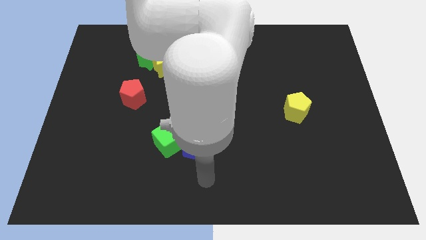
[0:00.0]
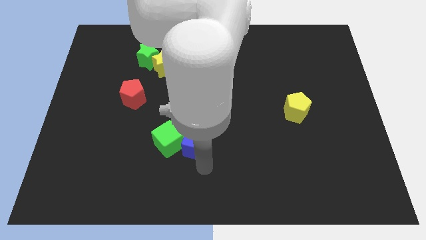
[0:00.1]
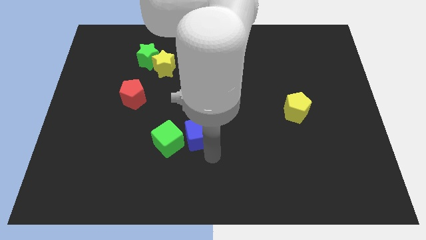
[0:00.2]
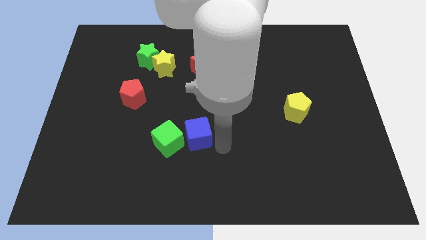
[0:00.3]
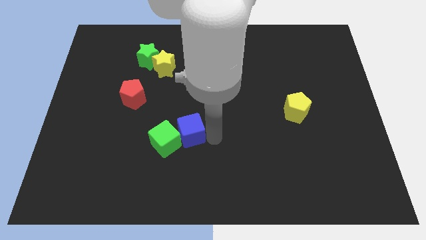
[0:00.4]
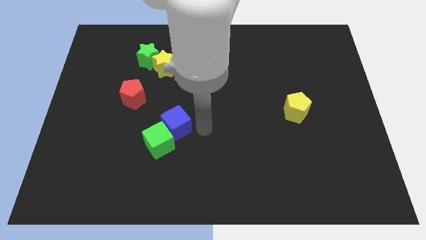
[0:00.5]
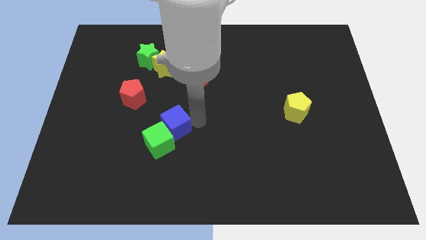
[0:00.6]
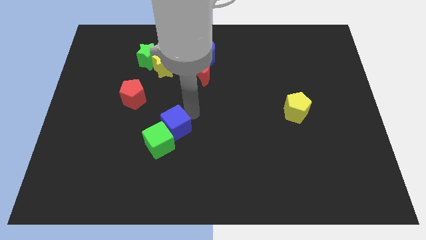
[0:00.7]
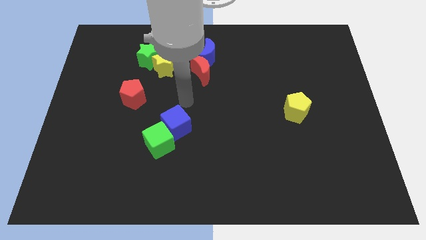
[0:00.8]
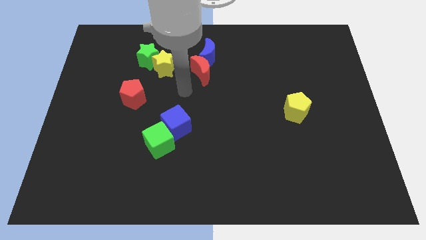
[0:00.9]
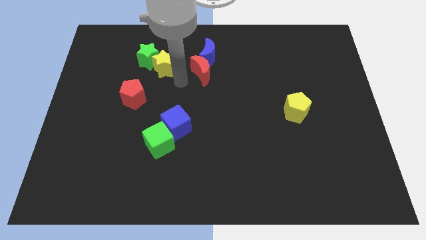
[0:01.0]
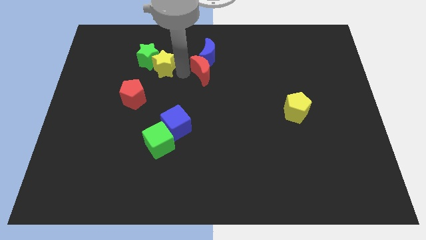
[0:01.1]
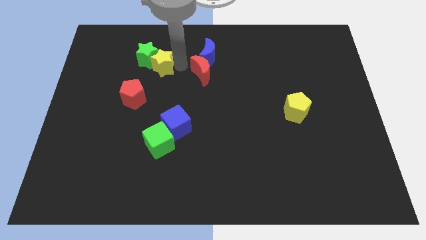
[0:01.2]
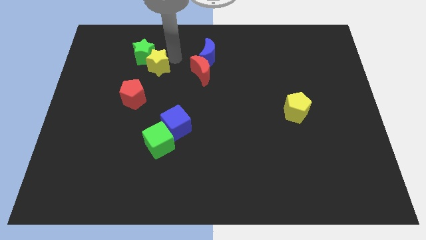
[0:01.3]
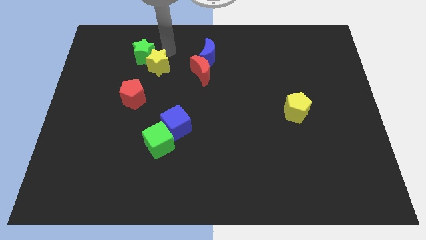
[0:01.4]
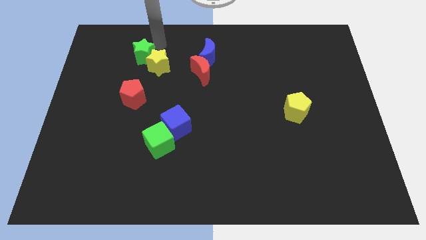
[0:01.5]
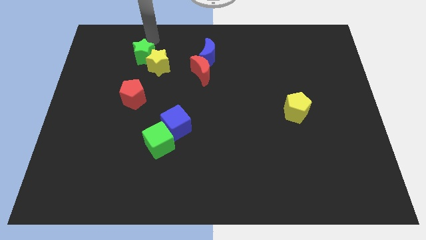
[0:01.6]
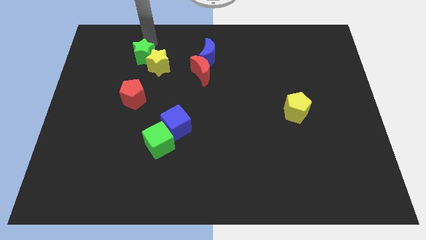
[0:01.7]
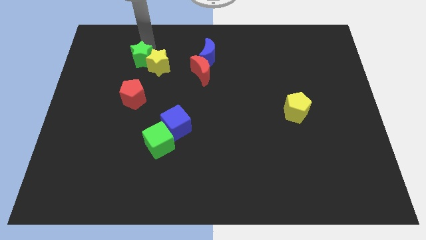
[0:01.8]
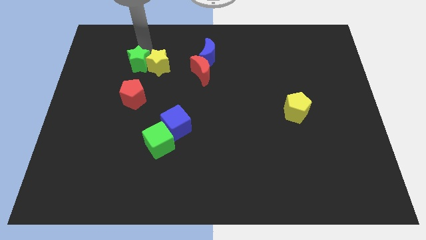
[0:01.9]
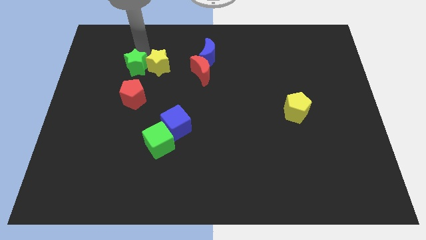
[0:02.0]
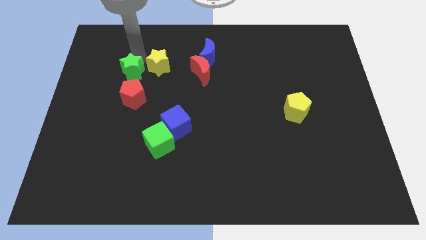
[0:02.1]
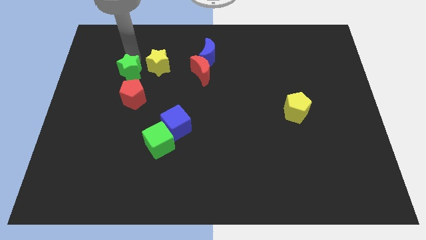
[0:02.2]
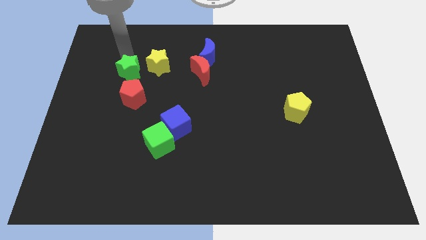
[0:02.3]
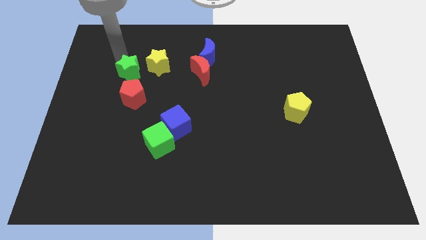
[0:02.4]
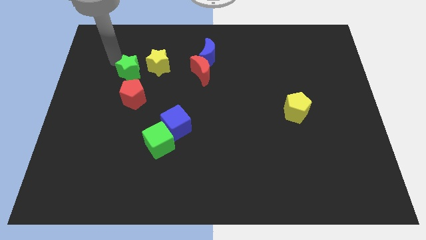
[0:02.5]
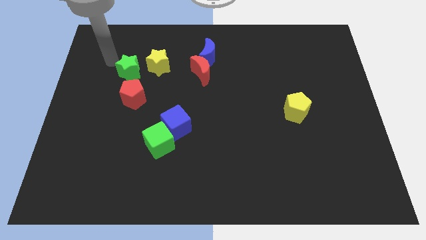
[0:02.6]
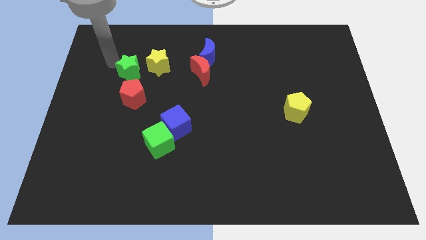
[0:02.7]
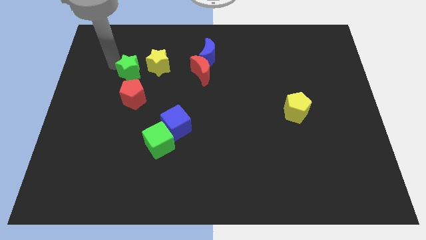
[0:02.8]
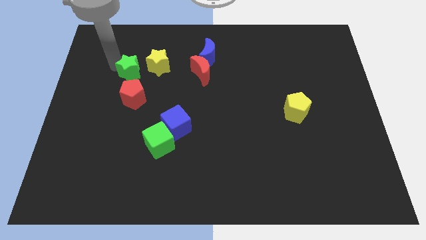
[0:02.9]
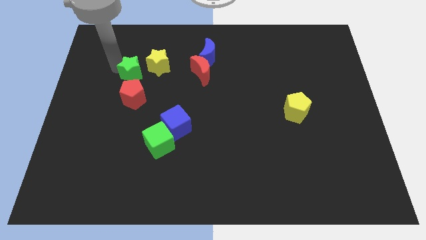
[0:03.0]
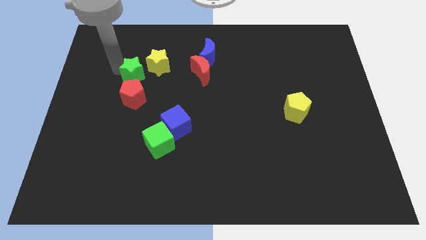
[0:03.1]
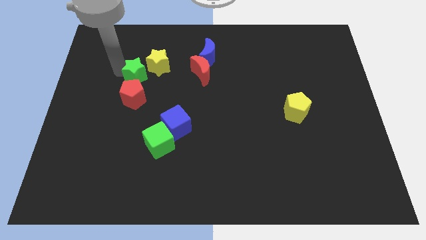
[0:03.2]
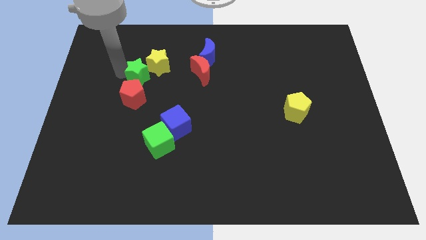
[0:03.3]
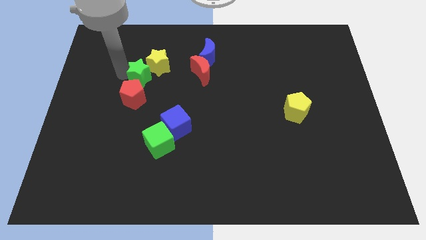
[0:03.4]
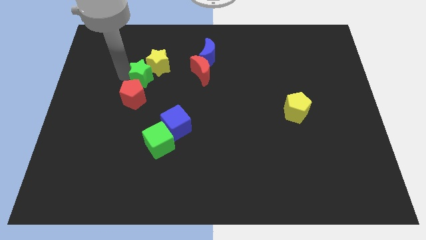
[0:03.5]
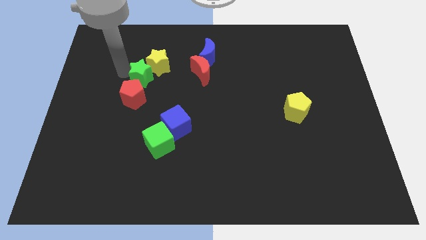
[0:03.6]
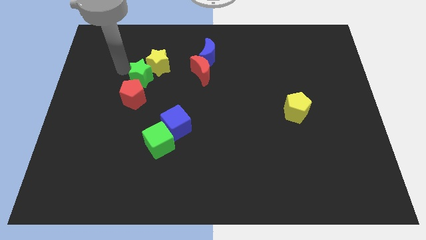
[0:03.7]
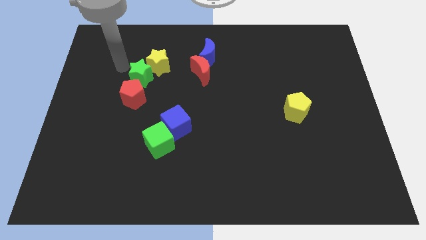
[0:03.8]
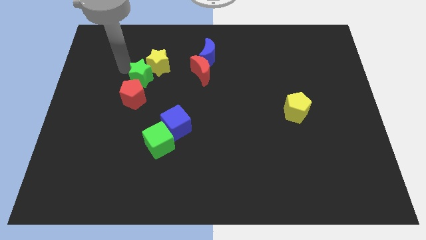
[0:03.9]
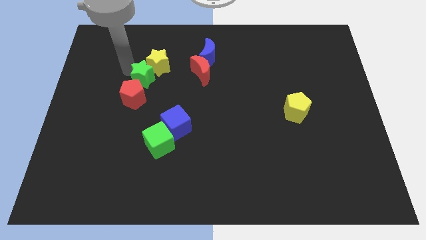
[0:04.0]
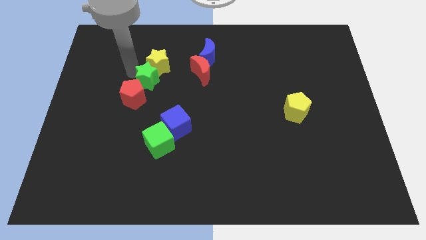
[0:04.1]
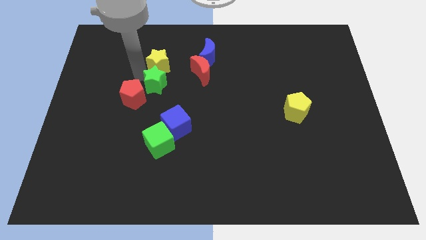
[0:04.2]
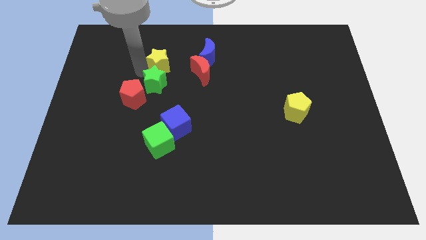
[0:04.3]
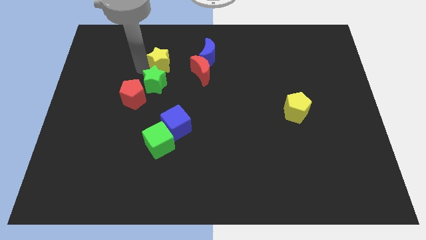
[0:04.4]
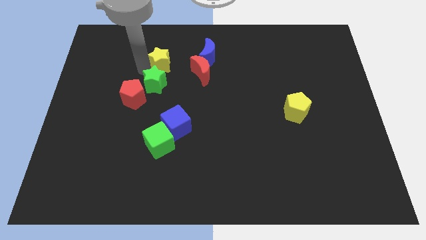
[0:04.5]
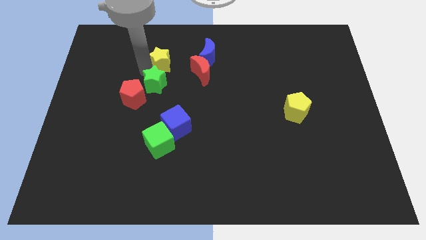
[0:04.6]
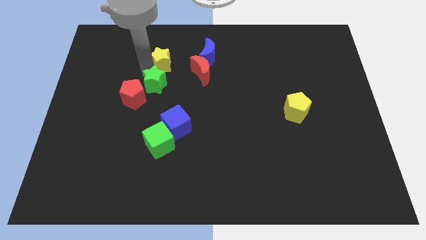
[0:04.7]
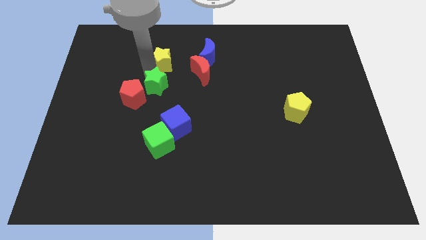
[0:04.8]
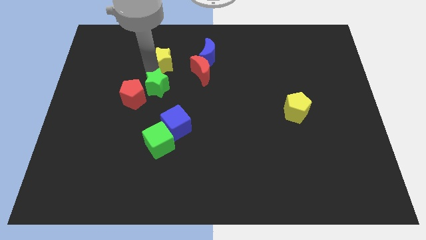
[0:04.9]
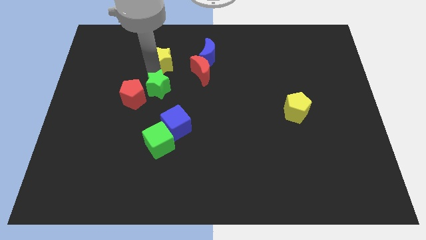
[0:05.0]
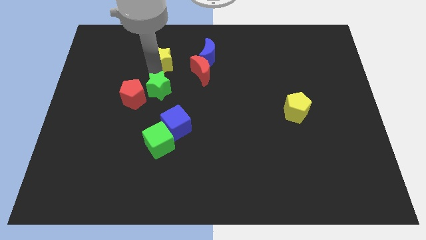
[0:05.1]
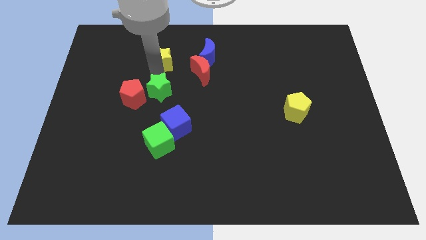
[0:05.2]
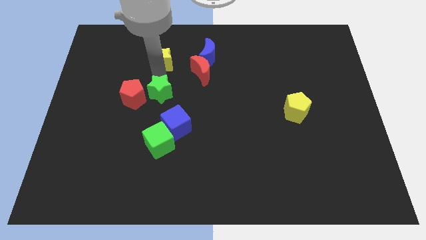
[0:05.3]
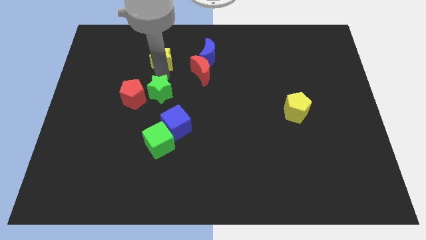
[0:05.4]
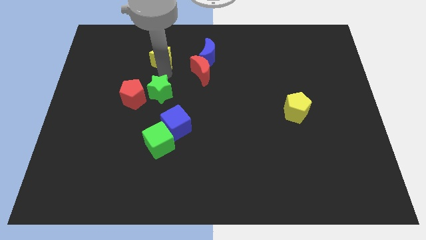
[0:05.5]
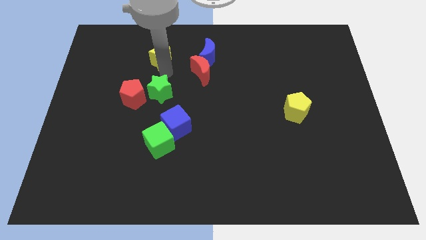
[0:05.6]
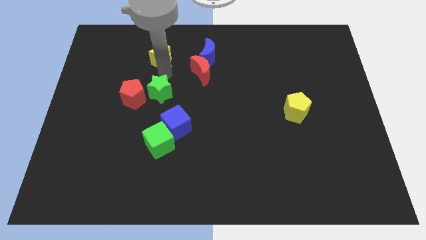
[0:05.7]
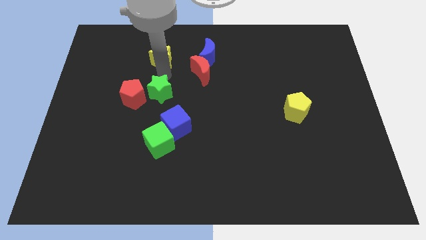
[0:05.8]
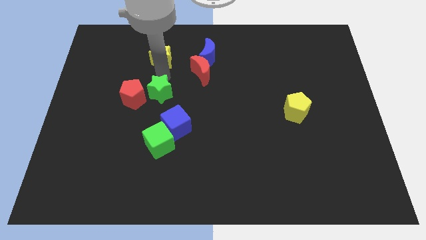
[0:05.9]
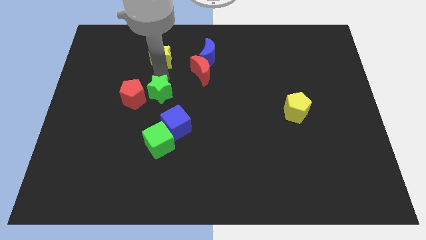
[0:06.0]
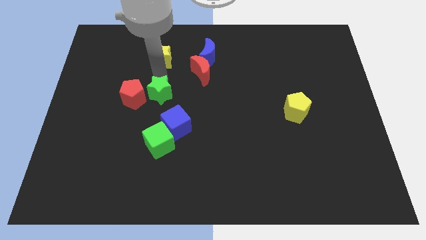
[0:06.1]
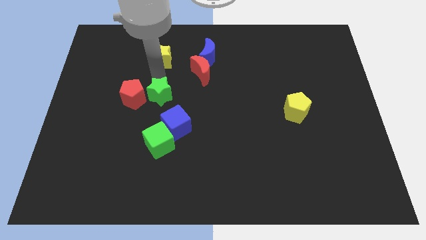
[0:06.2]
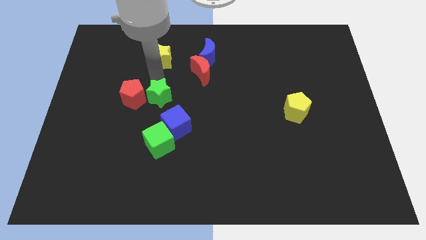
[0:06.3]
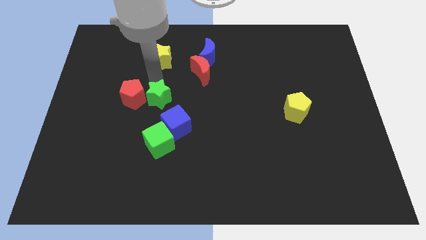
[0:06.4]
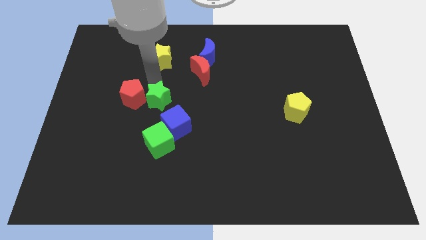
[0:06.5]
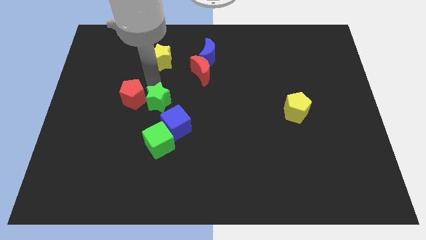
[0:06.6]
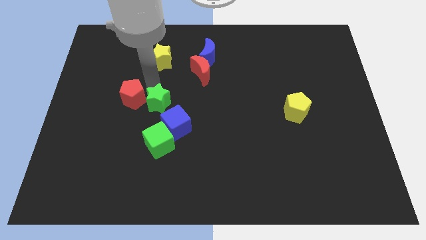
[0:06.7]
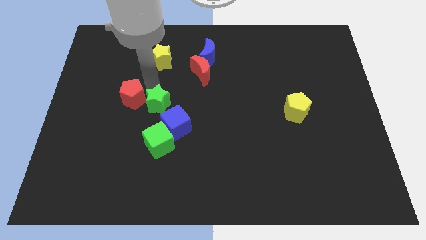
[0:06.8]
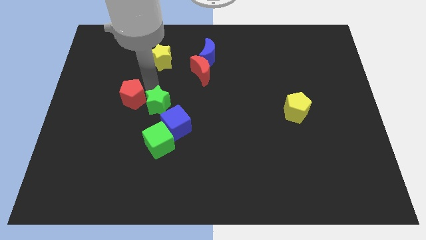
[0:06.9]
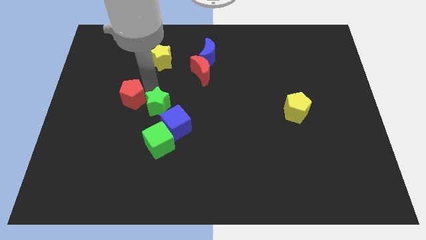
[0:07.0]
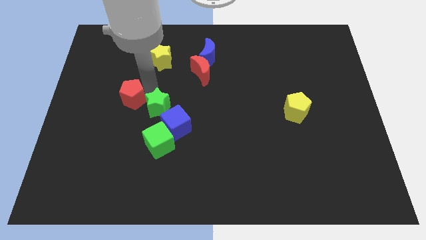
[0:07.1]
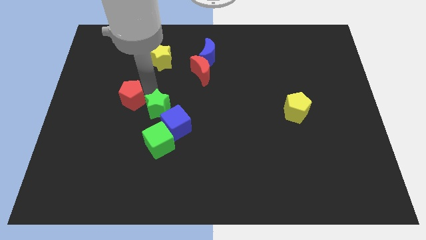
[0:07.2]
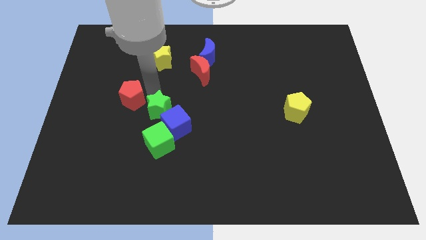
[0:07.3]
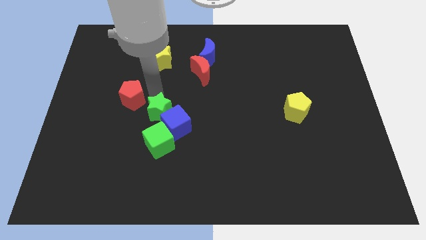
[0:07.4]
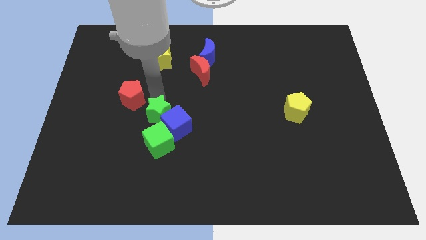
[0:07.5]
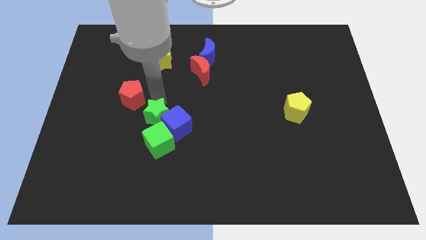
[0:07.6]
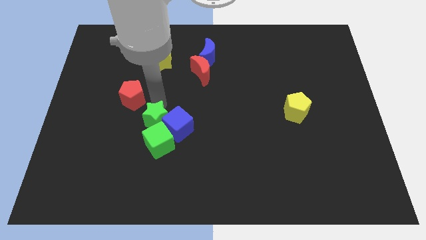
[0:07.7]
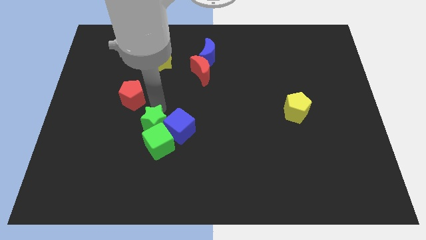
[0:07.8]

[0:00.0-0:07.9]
push the green star diagonally up and to the left of the blue cube

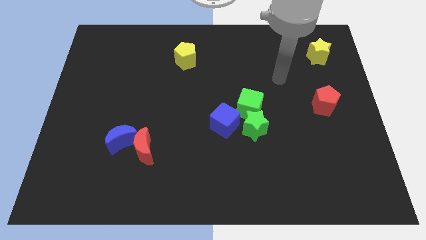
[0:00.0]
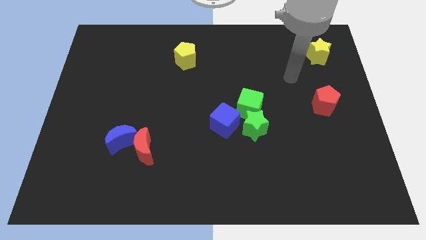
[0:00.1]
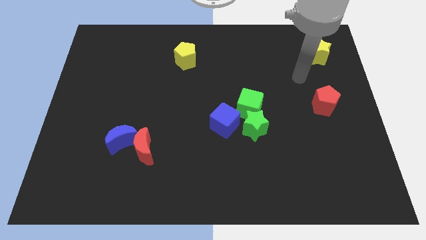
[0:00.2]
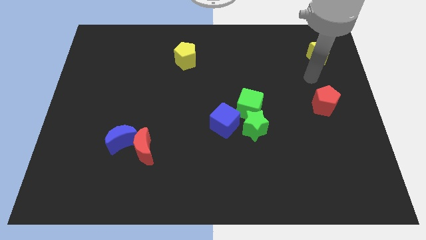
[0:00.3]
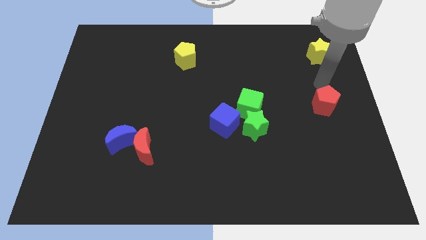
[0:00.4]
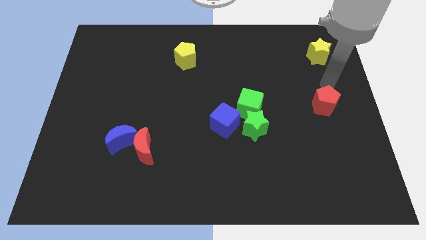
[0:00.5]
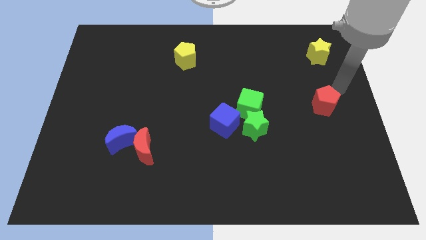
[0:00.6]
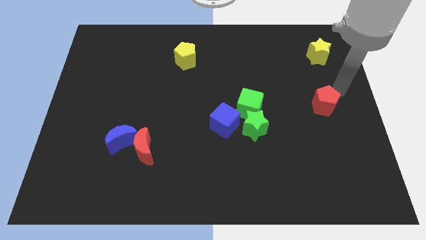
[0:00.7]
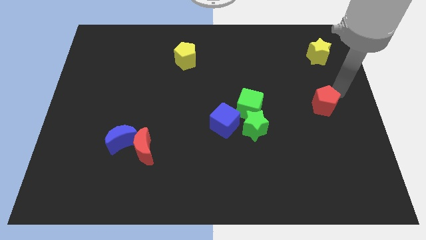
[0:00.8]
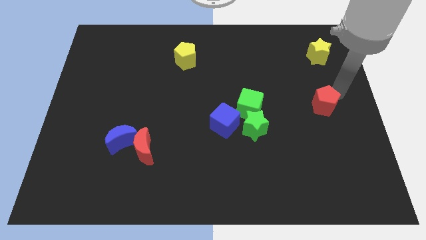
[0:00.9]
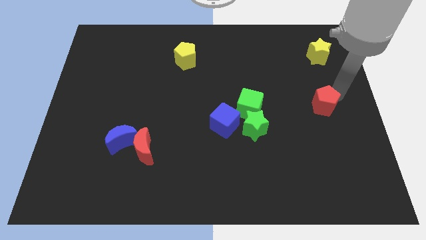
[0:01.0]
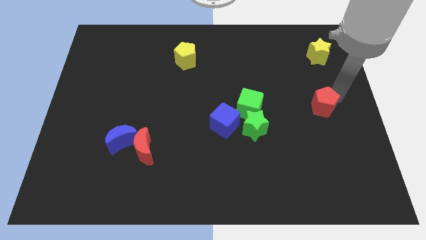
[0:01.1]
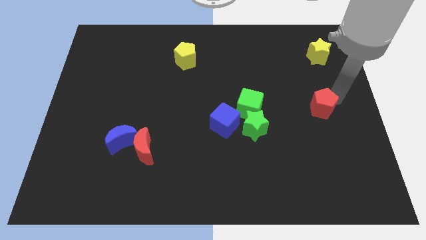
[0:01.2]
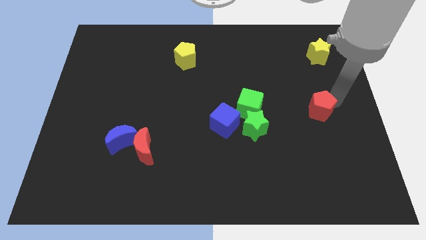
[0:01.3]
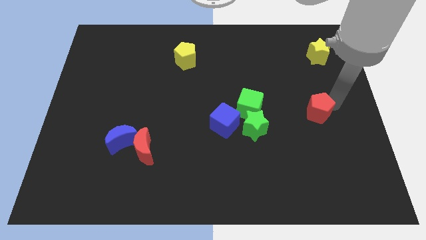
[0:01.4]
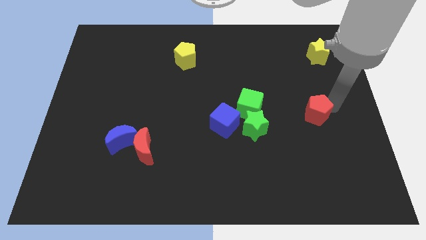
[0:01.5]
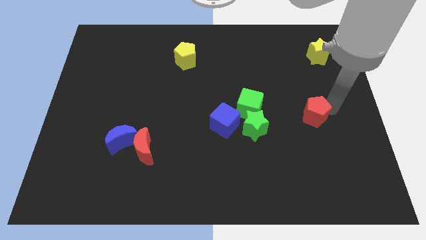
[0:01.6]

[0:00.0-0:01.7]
put the red pentagon to the right of the green star
